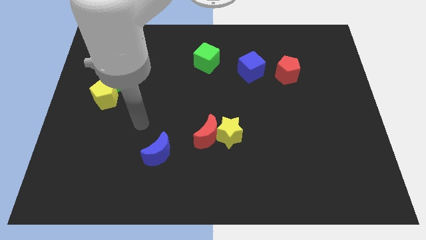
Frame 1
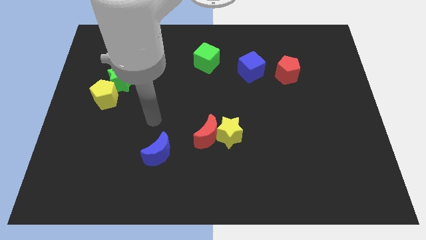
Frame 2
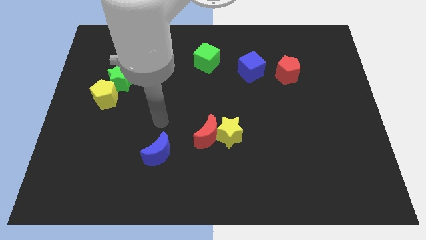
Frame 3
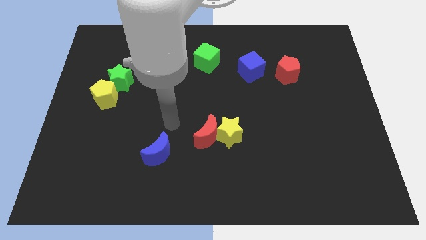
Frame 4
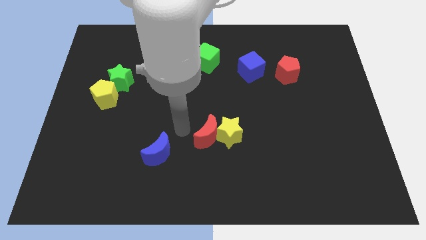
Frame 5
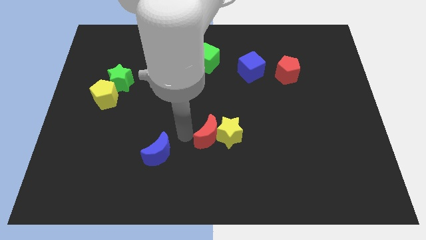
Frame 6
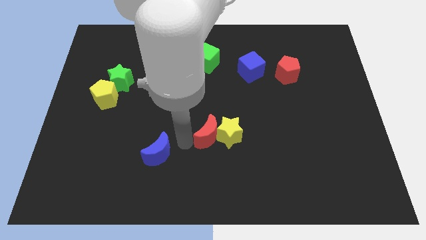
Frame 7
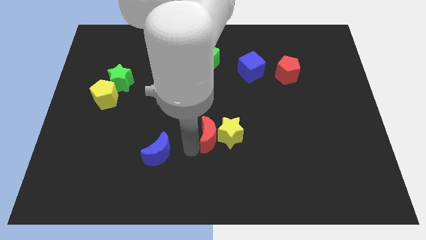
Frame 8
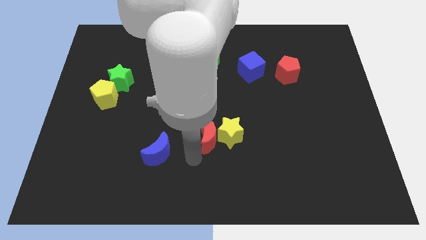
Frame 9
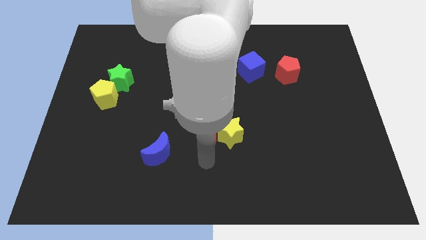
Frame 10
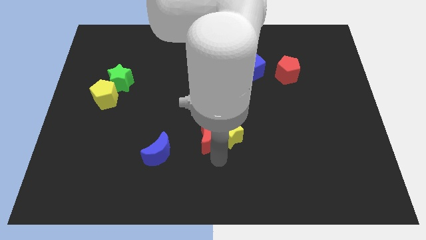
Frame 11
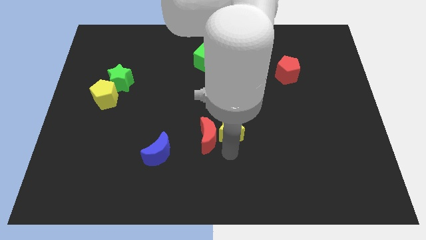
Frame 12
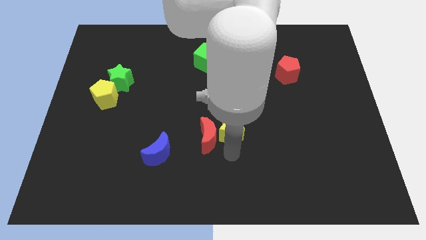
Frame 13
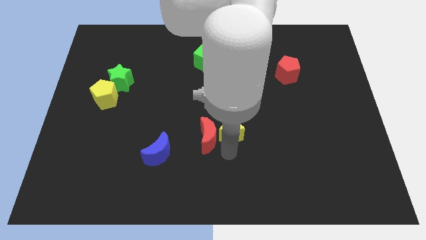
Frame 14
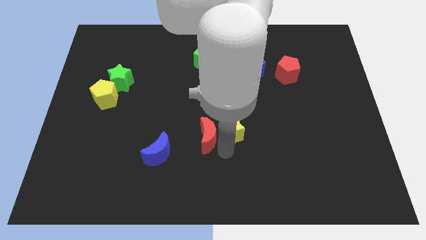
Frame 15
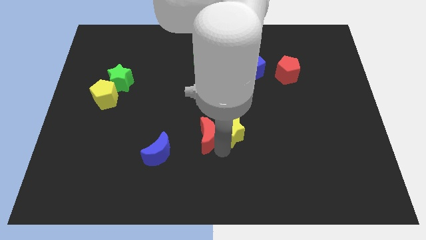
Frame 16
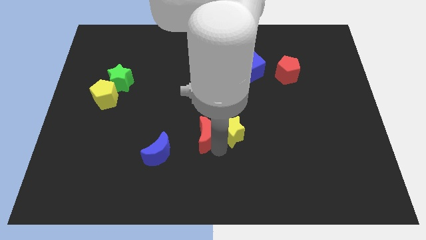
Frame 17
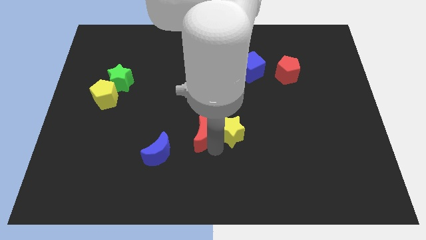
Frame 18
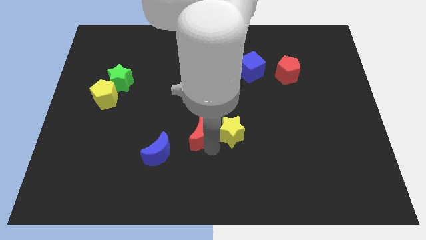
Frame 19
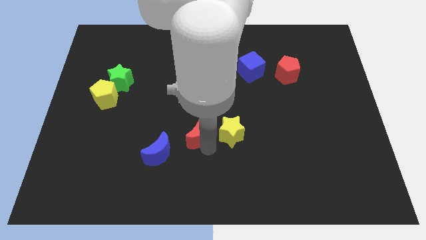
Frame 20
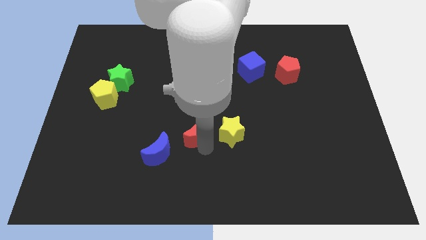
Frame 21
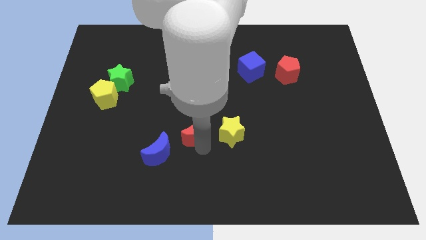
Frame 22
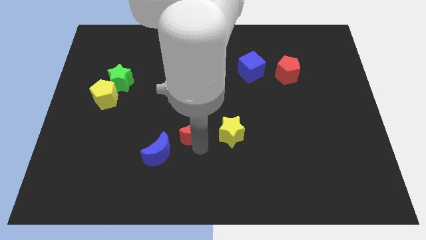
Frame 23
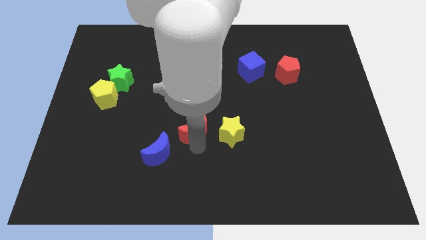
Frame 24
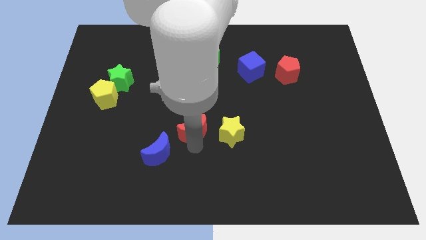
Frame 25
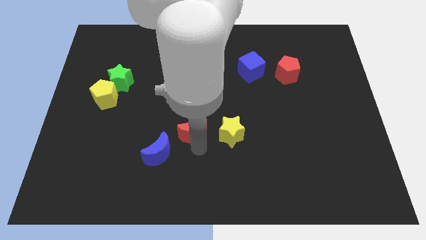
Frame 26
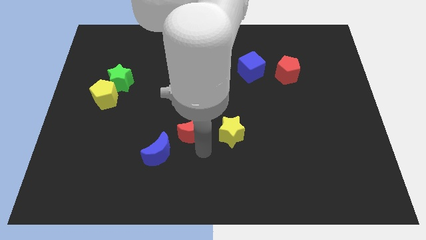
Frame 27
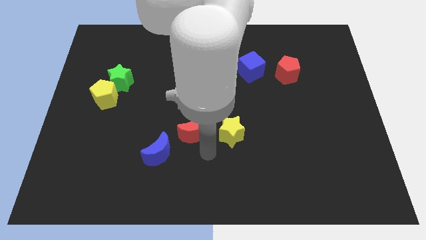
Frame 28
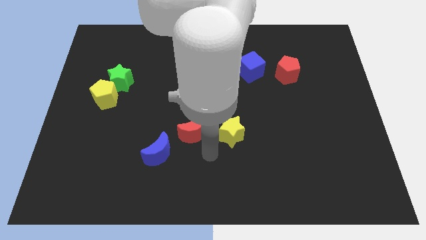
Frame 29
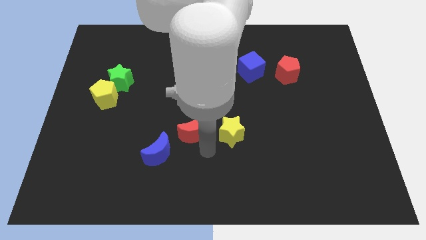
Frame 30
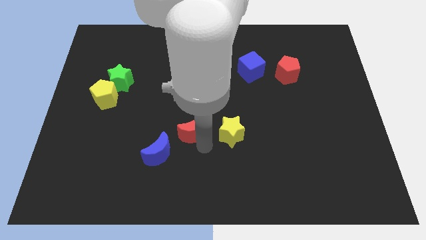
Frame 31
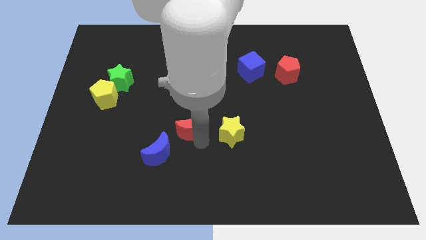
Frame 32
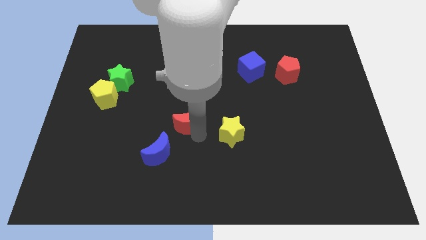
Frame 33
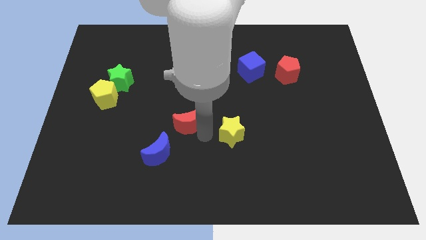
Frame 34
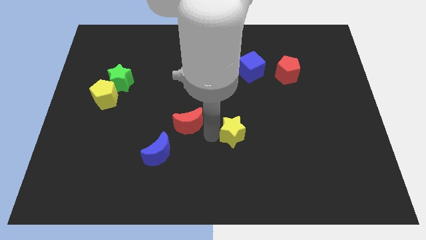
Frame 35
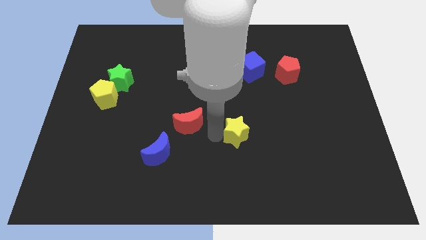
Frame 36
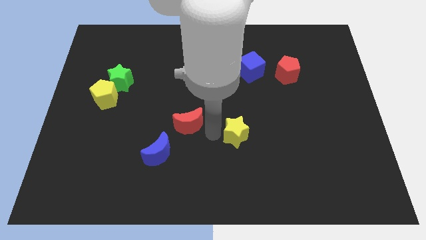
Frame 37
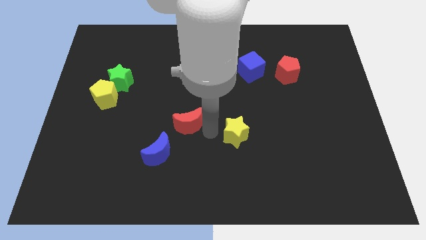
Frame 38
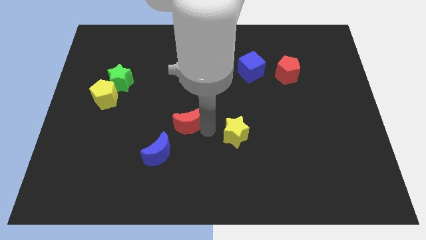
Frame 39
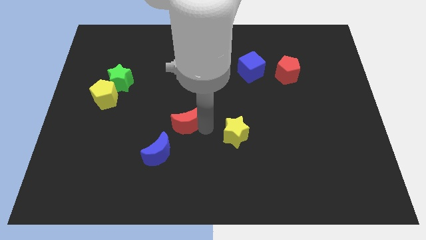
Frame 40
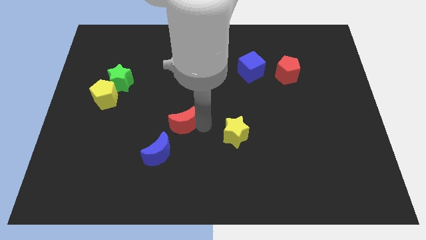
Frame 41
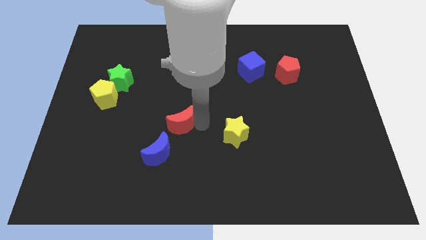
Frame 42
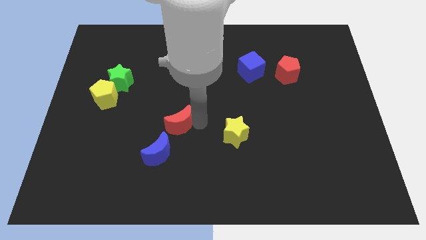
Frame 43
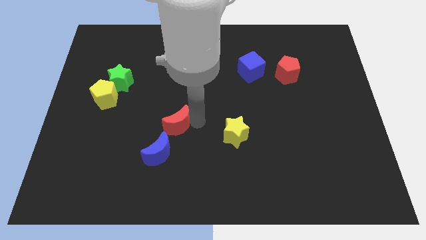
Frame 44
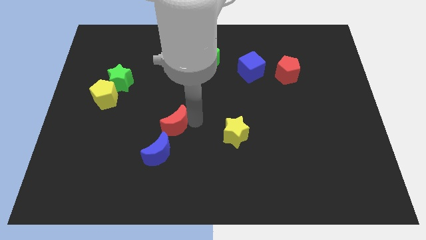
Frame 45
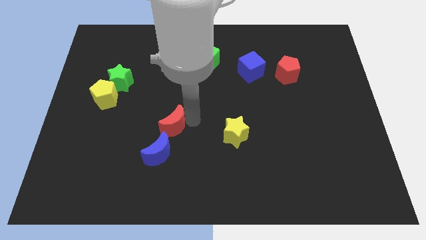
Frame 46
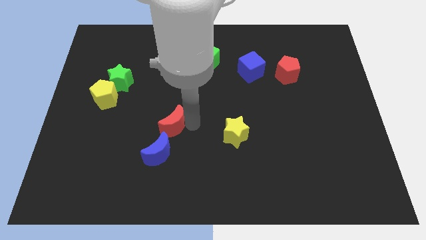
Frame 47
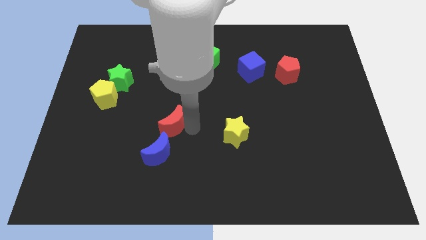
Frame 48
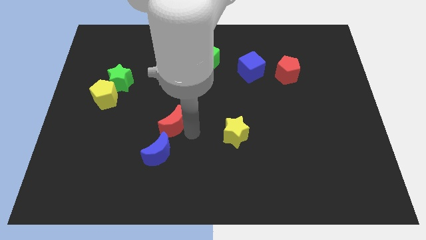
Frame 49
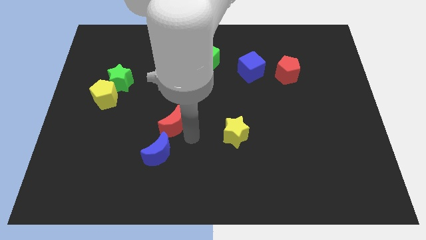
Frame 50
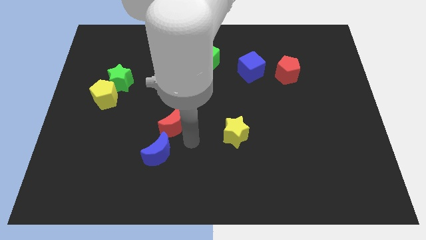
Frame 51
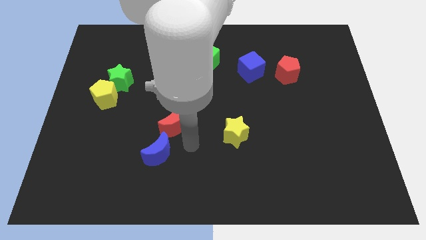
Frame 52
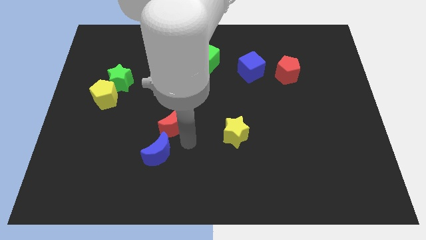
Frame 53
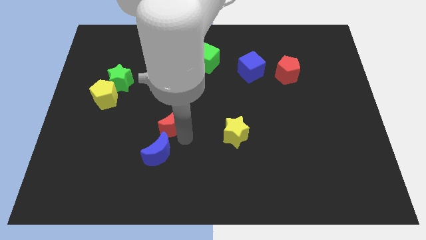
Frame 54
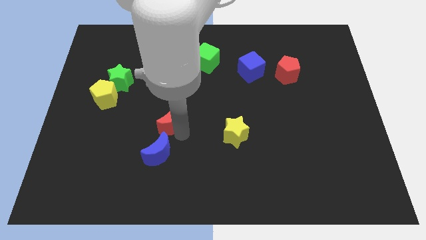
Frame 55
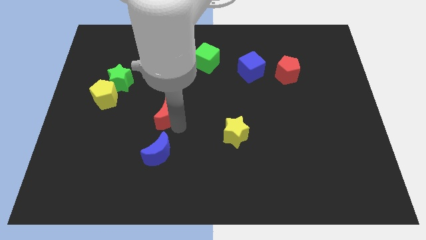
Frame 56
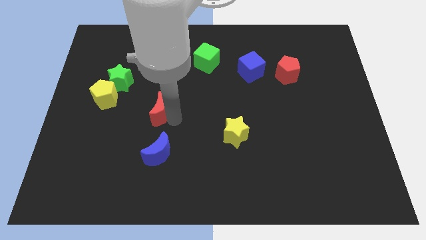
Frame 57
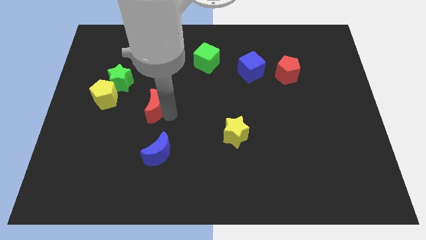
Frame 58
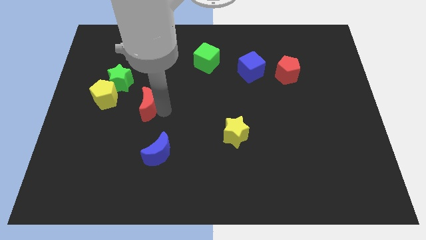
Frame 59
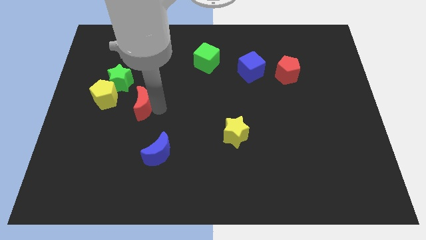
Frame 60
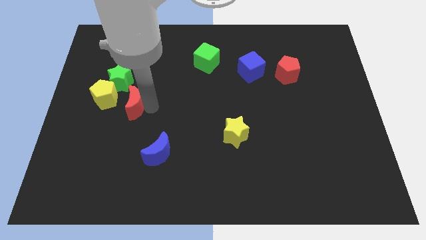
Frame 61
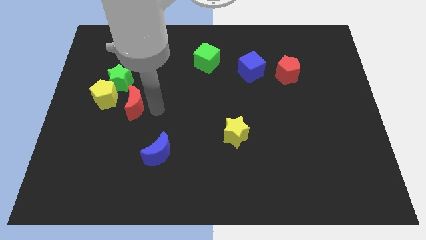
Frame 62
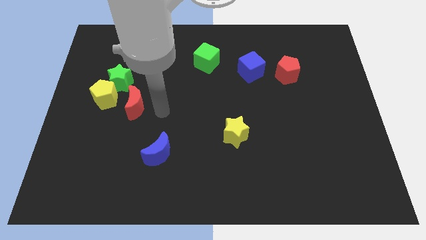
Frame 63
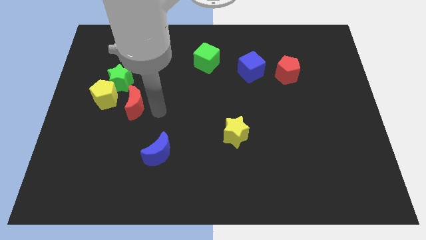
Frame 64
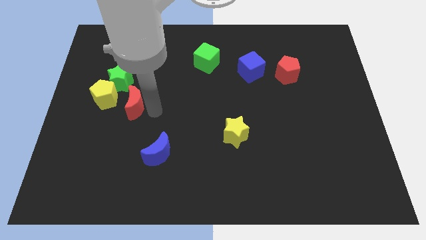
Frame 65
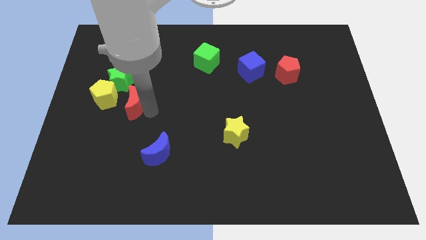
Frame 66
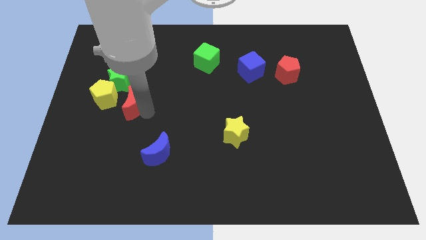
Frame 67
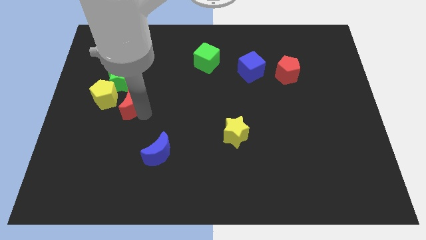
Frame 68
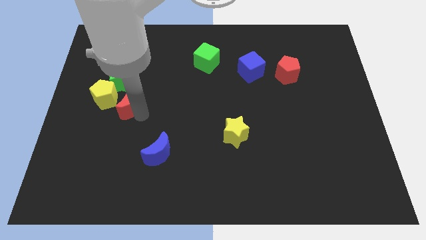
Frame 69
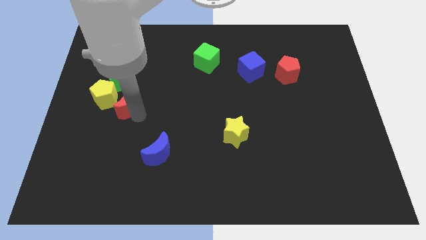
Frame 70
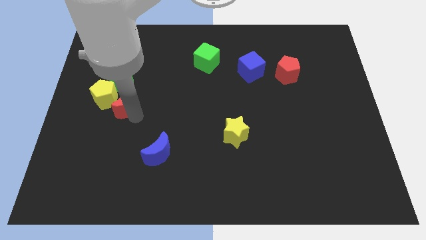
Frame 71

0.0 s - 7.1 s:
push the red moon next to the yellow pentagon
